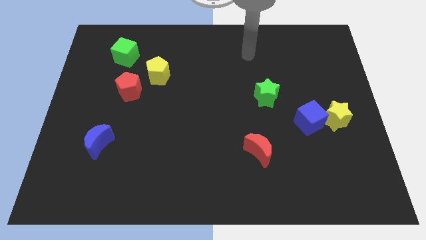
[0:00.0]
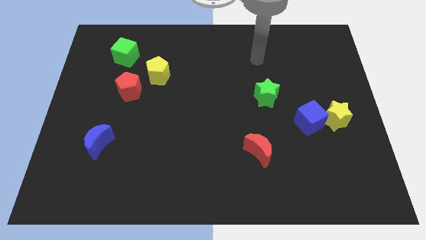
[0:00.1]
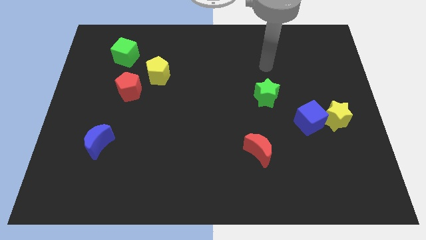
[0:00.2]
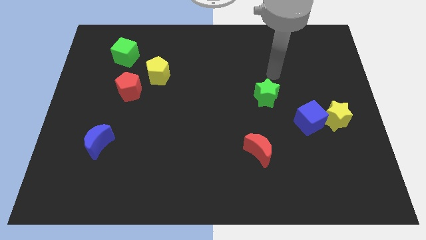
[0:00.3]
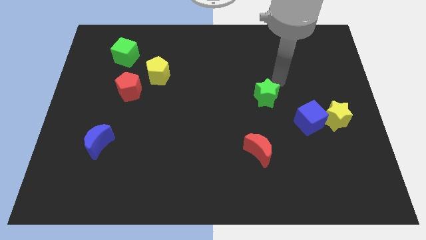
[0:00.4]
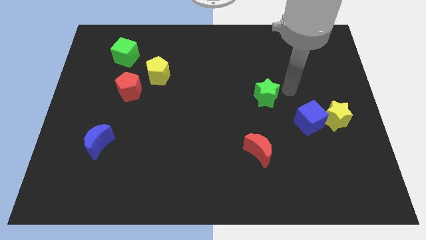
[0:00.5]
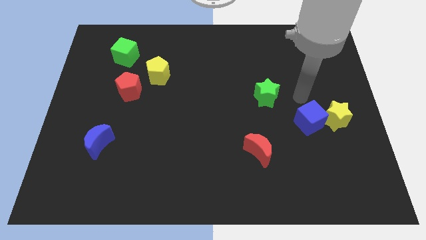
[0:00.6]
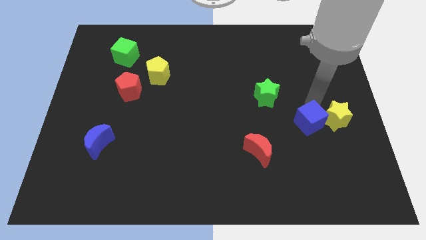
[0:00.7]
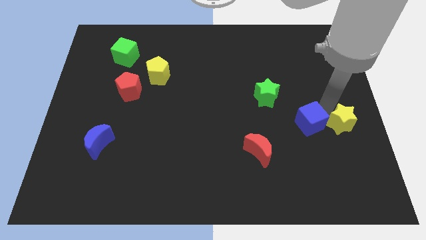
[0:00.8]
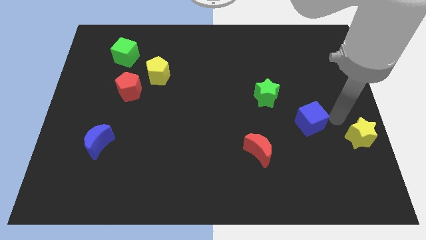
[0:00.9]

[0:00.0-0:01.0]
separate the blue cube from the yellow star

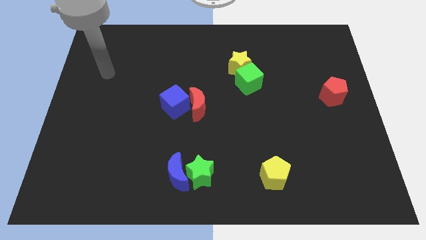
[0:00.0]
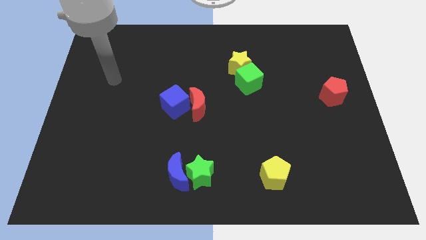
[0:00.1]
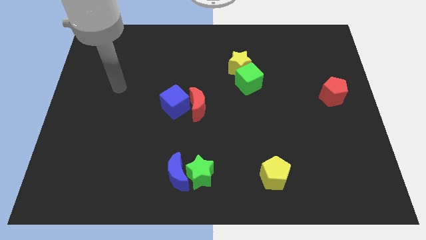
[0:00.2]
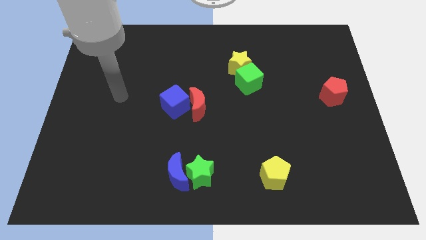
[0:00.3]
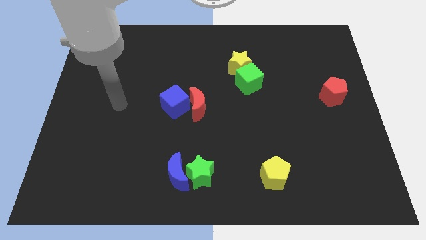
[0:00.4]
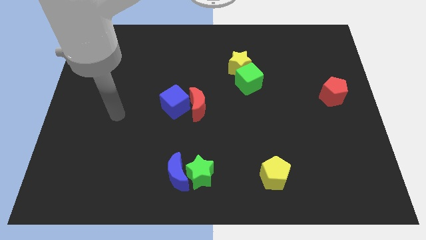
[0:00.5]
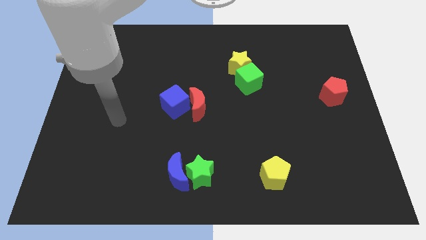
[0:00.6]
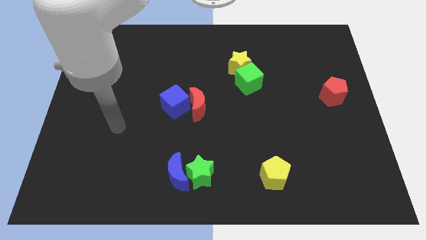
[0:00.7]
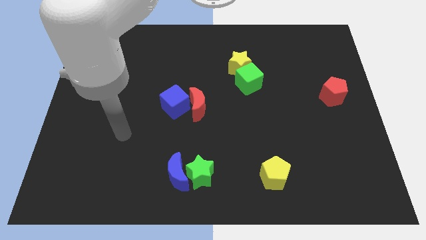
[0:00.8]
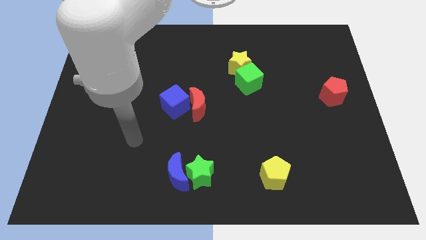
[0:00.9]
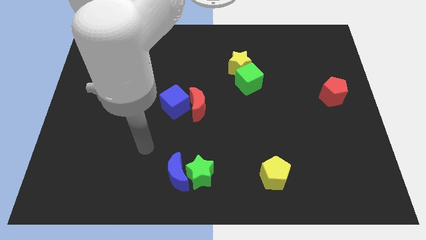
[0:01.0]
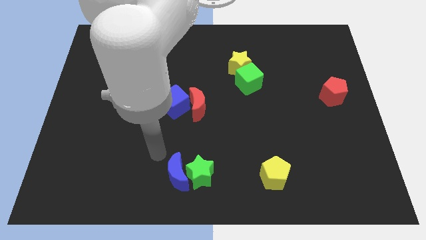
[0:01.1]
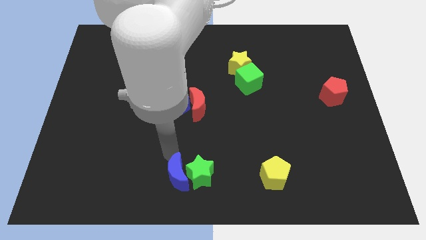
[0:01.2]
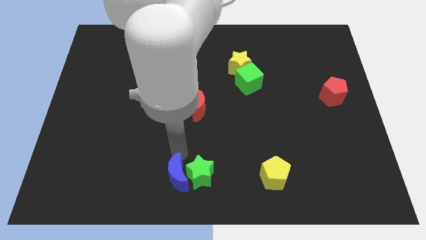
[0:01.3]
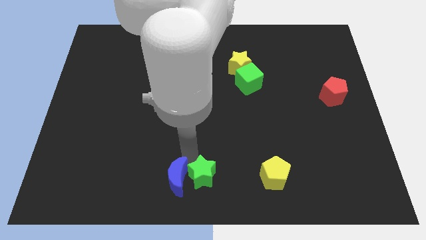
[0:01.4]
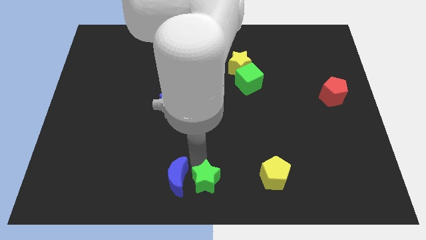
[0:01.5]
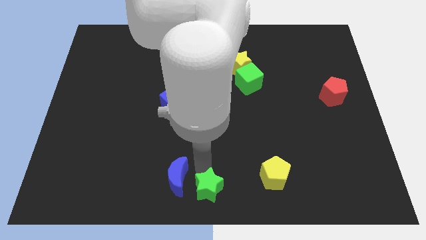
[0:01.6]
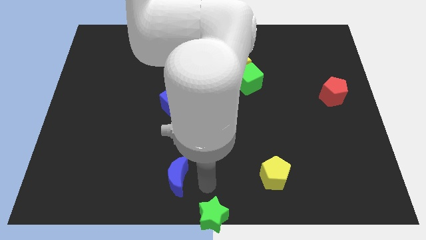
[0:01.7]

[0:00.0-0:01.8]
pull the blue moon apart from the green star

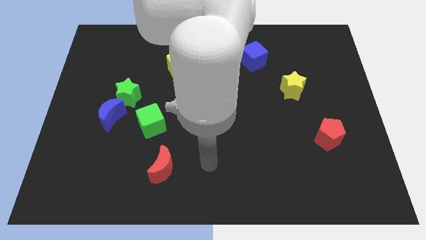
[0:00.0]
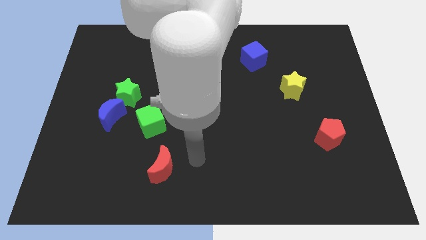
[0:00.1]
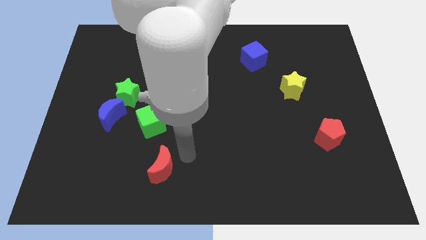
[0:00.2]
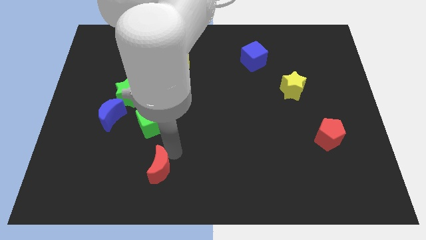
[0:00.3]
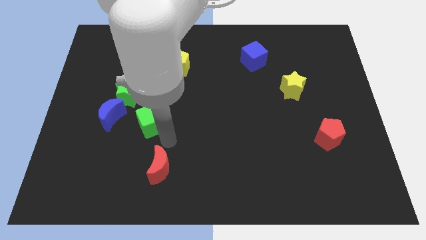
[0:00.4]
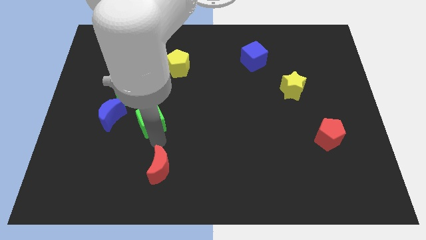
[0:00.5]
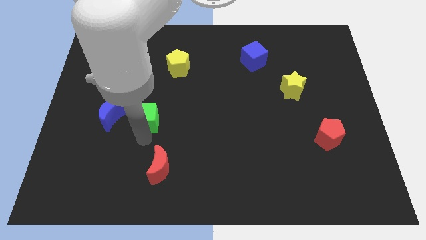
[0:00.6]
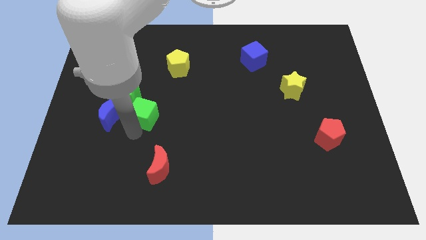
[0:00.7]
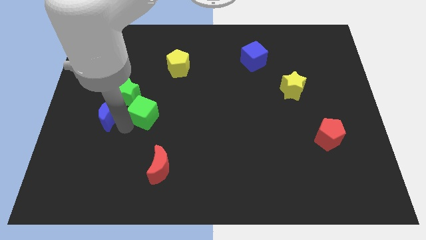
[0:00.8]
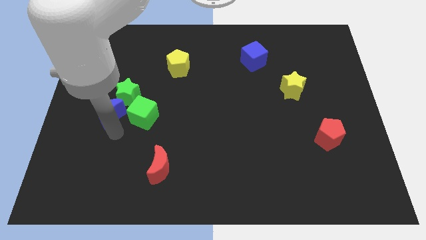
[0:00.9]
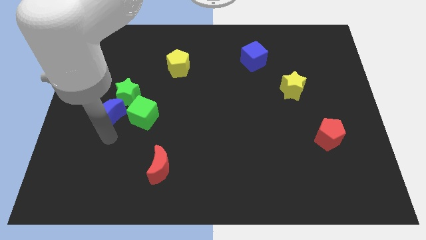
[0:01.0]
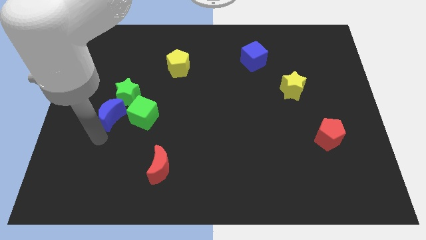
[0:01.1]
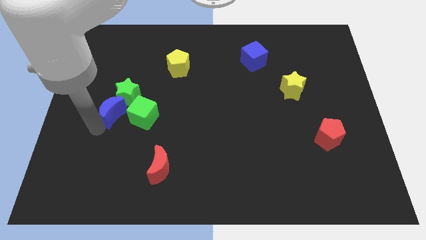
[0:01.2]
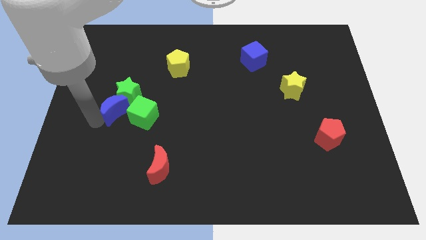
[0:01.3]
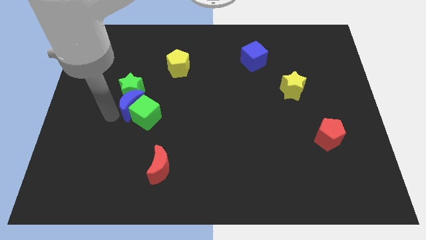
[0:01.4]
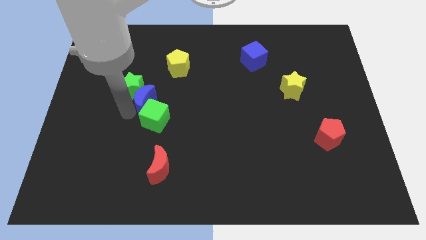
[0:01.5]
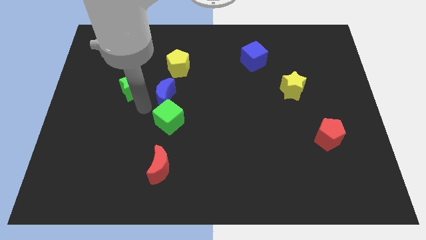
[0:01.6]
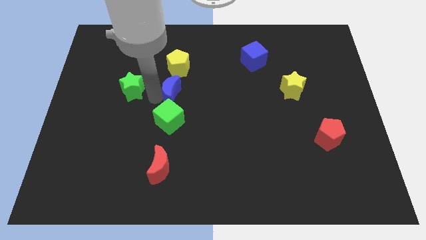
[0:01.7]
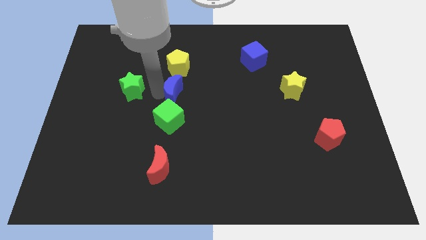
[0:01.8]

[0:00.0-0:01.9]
pull the green star apart from the blue moon

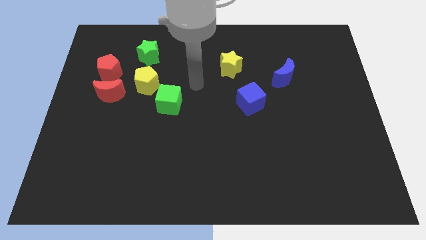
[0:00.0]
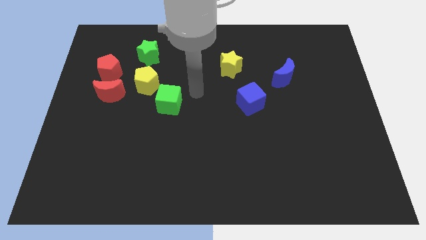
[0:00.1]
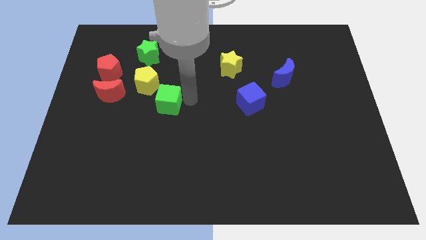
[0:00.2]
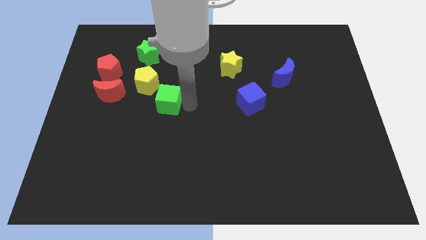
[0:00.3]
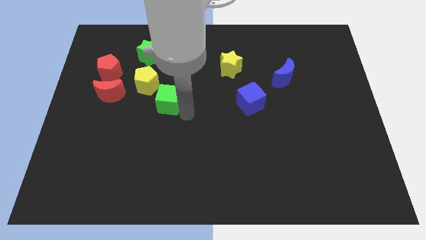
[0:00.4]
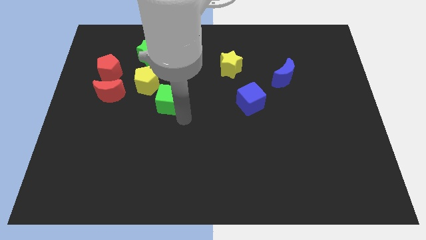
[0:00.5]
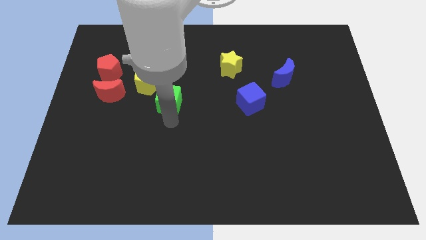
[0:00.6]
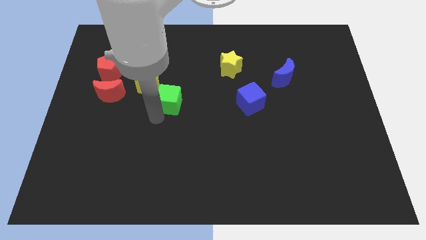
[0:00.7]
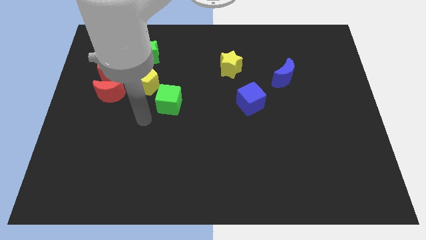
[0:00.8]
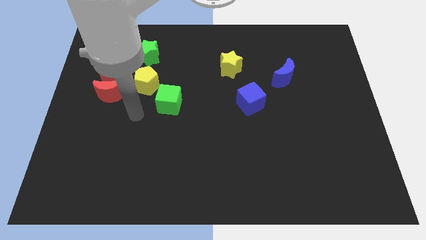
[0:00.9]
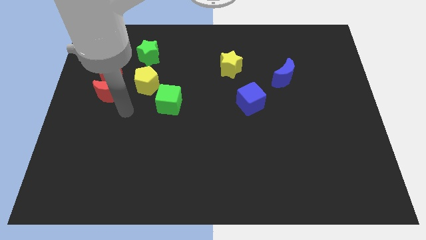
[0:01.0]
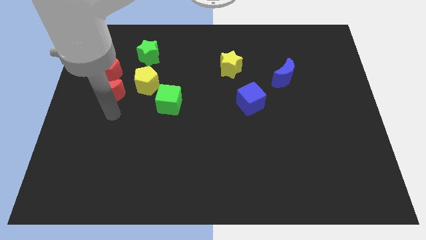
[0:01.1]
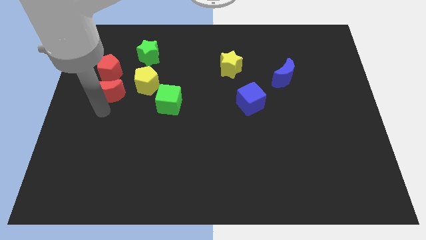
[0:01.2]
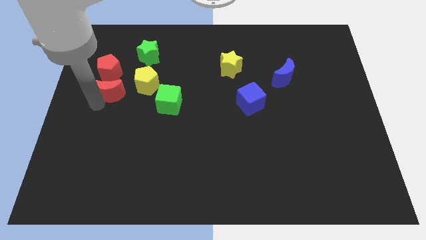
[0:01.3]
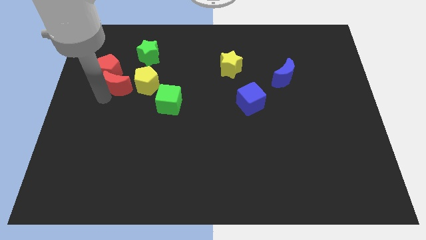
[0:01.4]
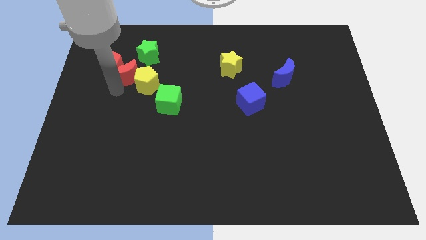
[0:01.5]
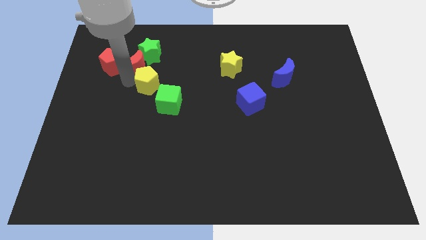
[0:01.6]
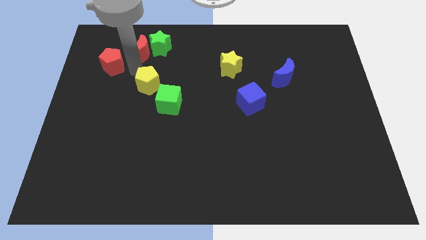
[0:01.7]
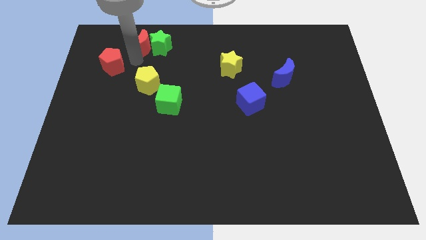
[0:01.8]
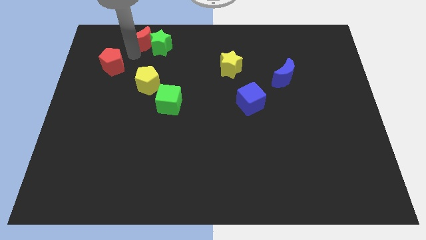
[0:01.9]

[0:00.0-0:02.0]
pull the red pentagon apart from the red moon

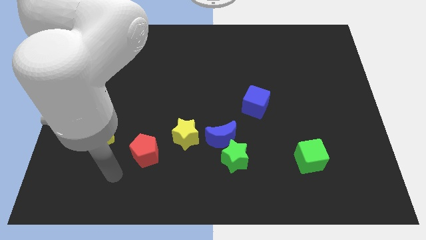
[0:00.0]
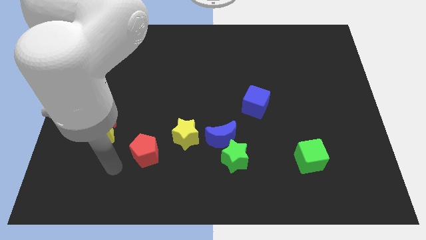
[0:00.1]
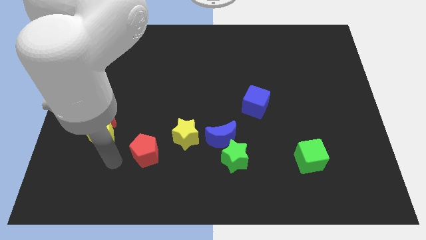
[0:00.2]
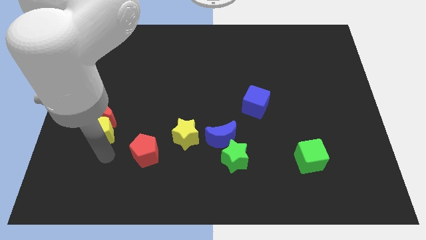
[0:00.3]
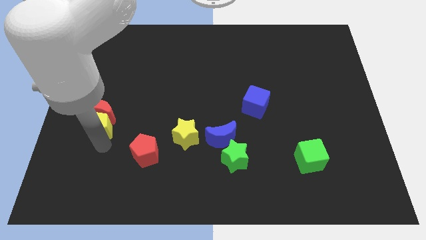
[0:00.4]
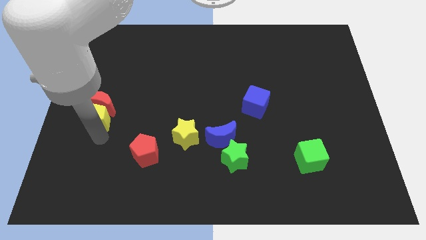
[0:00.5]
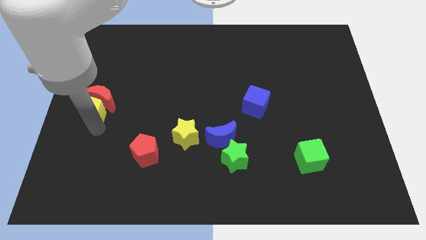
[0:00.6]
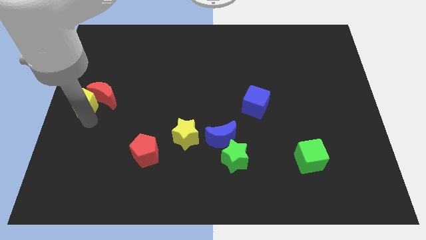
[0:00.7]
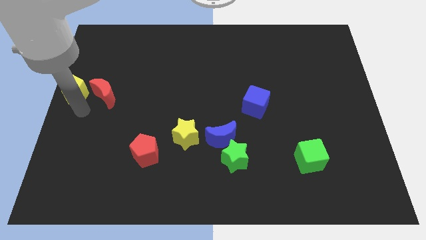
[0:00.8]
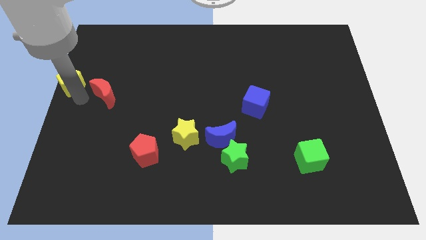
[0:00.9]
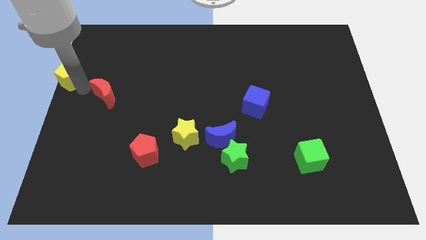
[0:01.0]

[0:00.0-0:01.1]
move the red moon away from the yellow pentagon

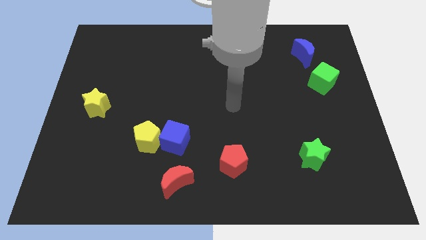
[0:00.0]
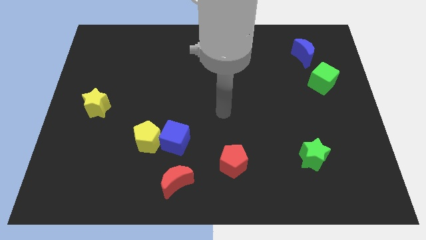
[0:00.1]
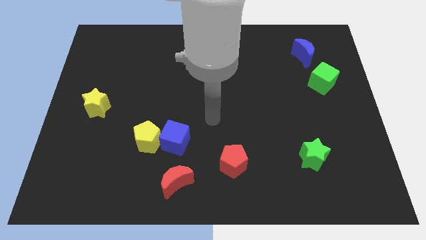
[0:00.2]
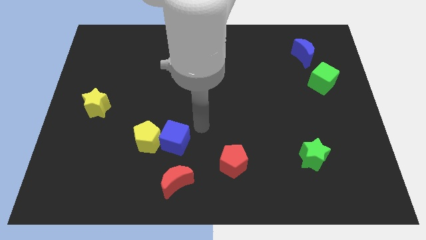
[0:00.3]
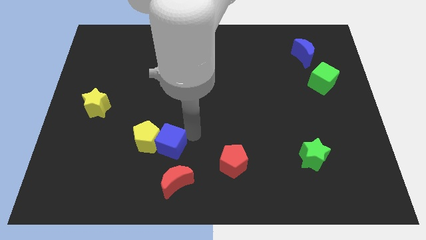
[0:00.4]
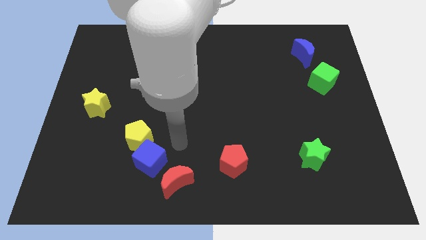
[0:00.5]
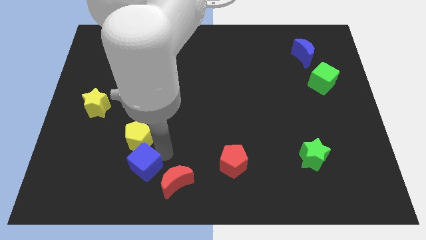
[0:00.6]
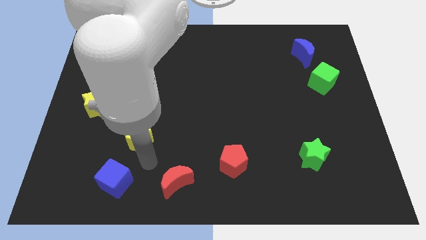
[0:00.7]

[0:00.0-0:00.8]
separate the yellow pentagon from the blue cube

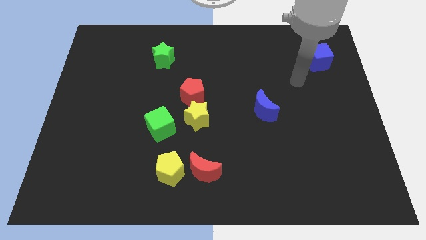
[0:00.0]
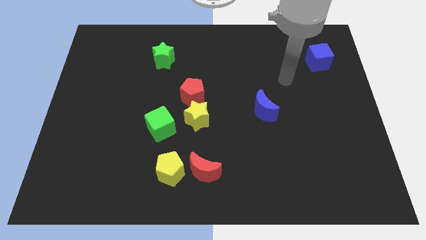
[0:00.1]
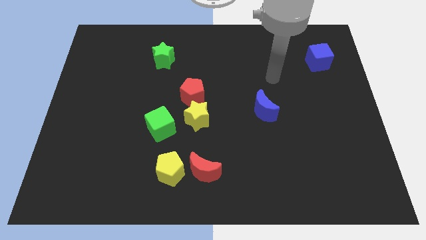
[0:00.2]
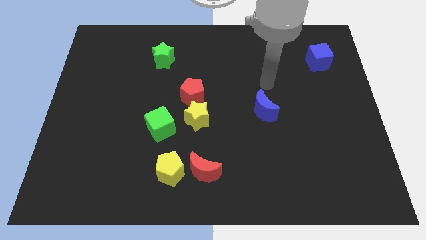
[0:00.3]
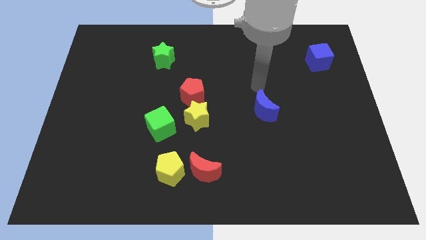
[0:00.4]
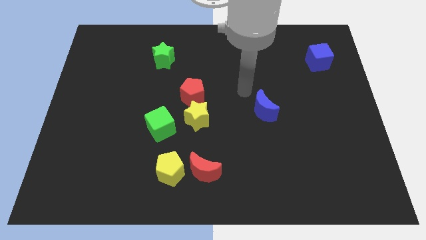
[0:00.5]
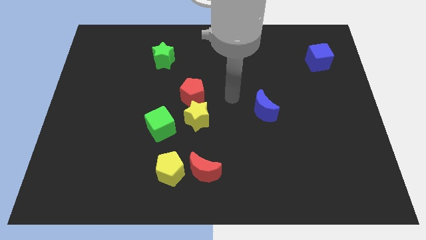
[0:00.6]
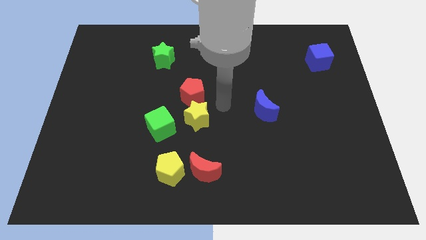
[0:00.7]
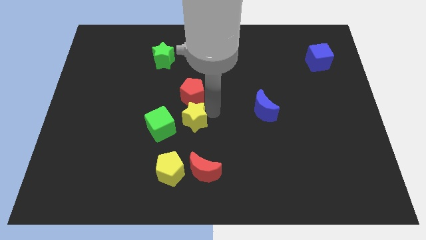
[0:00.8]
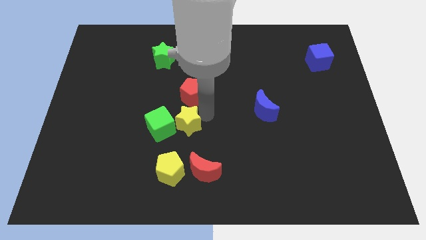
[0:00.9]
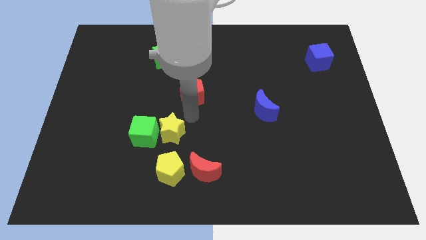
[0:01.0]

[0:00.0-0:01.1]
pull the red pentagon apart from the yellow star
